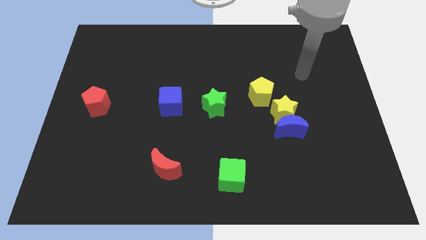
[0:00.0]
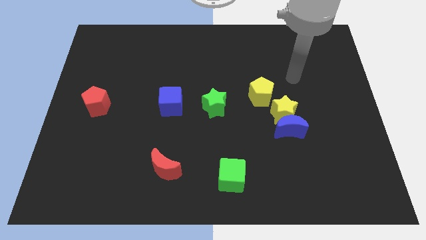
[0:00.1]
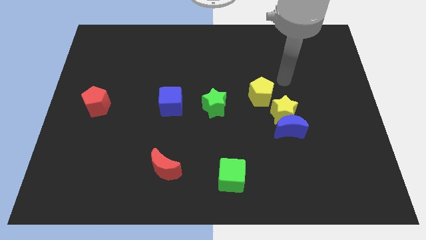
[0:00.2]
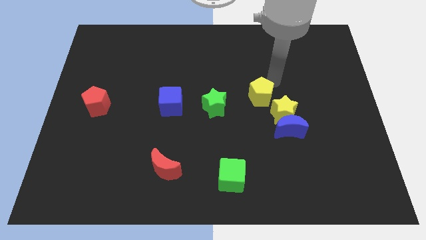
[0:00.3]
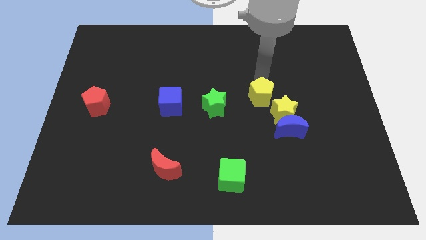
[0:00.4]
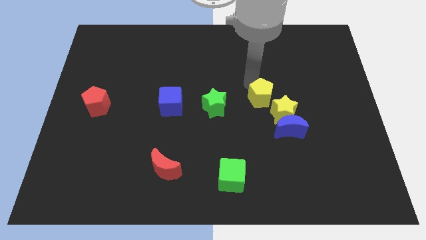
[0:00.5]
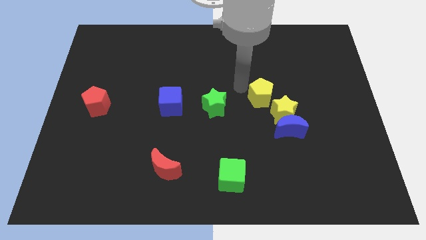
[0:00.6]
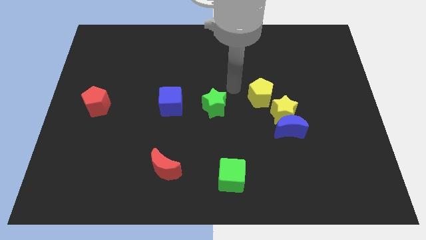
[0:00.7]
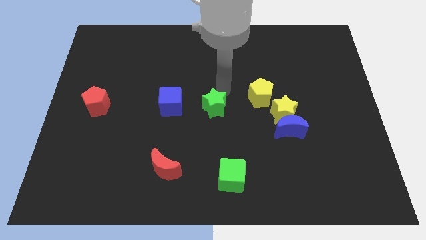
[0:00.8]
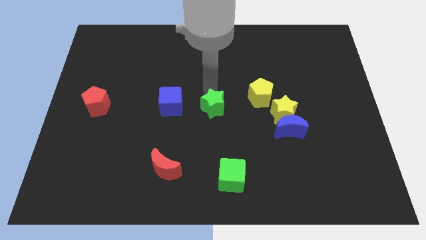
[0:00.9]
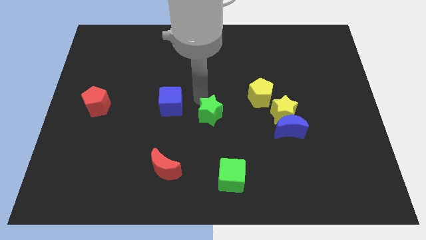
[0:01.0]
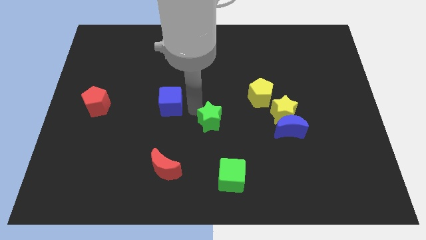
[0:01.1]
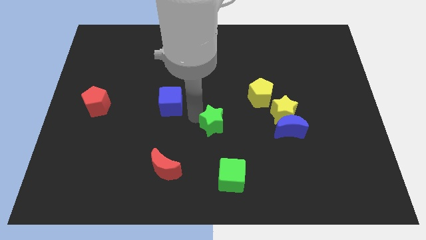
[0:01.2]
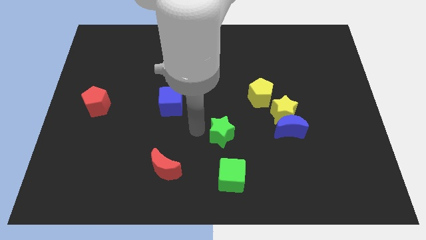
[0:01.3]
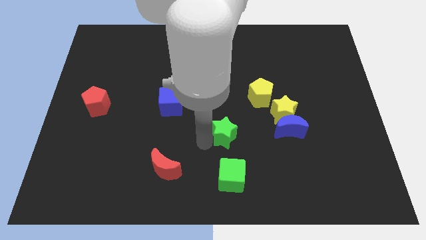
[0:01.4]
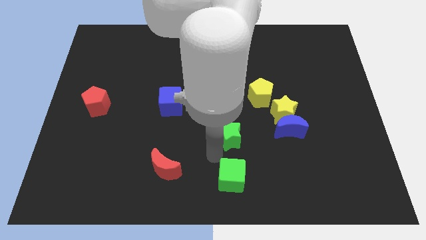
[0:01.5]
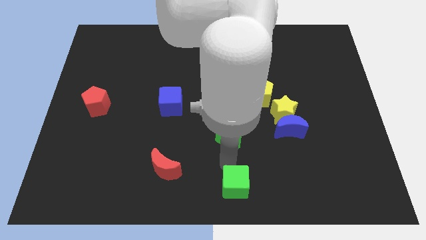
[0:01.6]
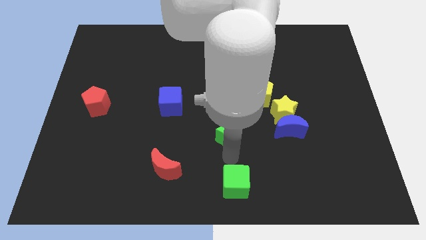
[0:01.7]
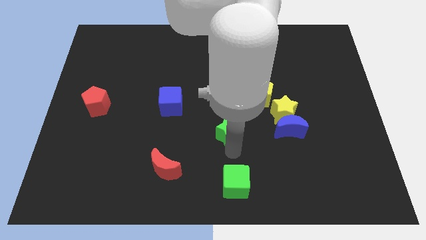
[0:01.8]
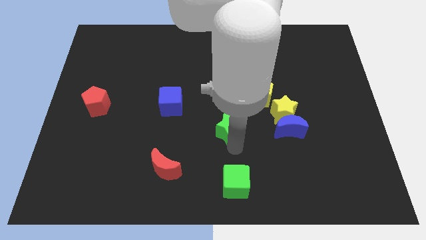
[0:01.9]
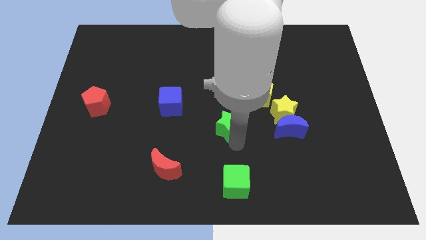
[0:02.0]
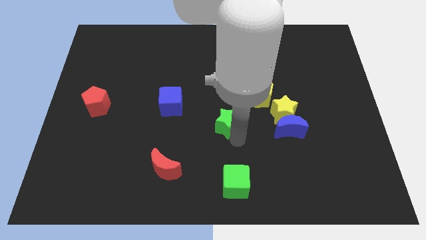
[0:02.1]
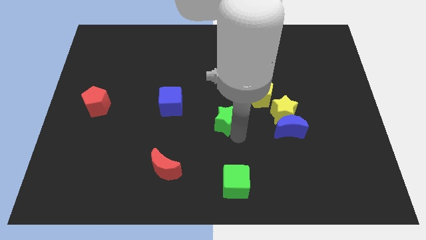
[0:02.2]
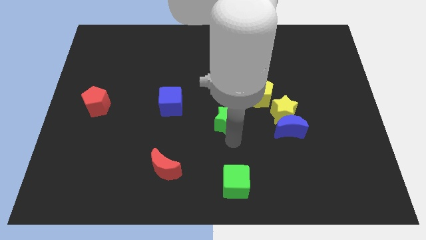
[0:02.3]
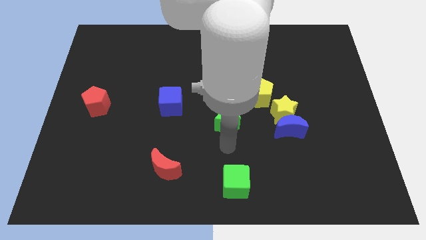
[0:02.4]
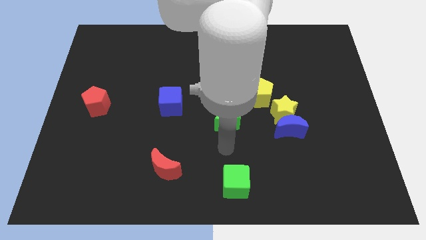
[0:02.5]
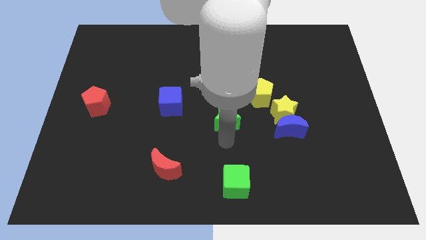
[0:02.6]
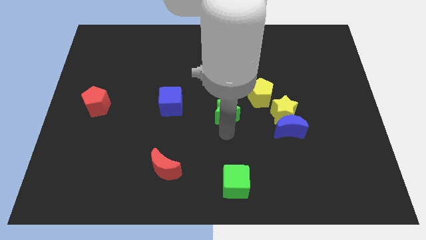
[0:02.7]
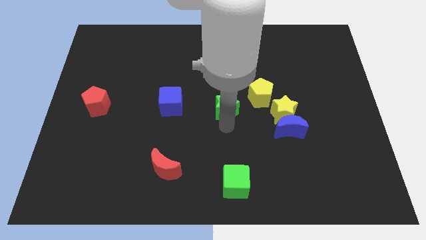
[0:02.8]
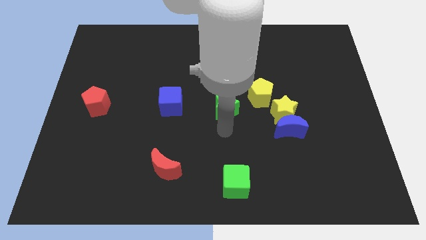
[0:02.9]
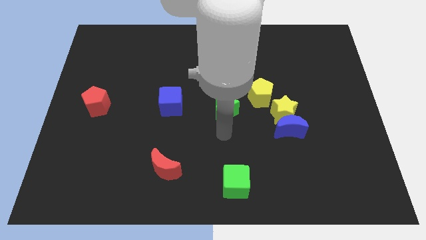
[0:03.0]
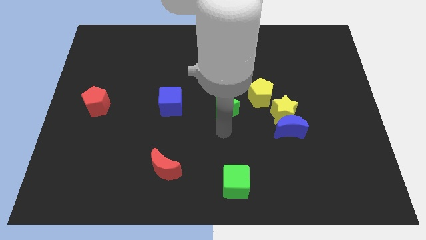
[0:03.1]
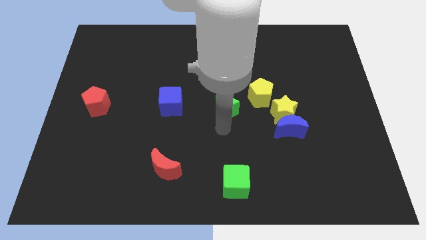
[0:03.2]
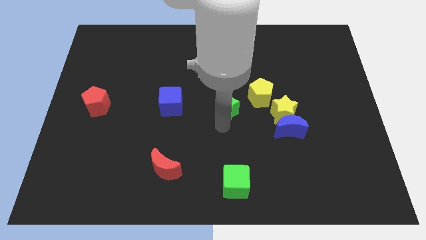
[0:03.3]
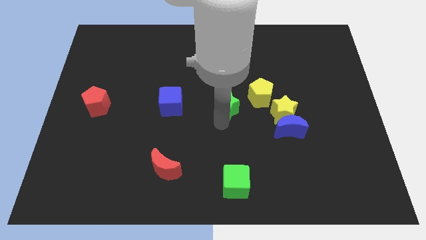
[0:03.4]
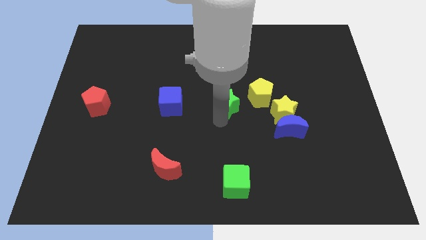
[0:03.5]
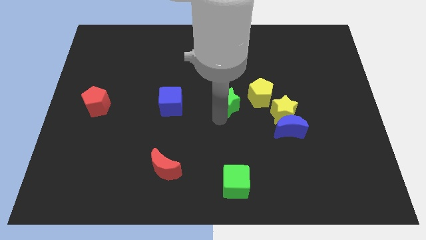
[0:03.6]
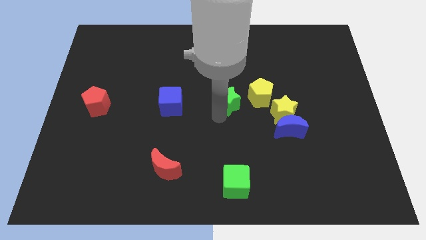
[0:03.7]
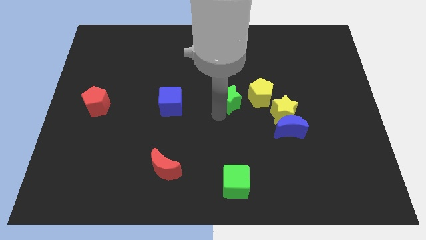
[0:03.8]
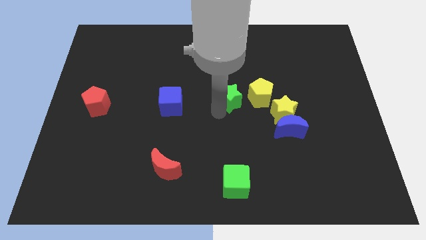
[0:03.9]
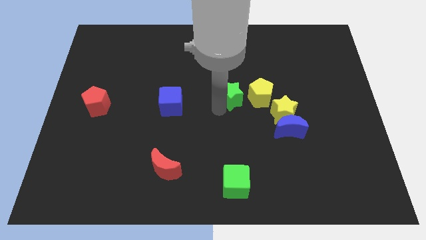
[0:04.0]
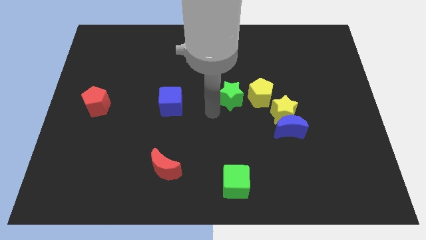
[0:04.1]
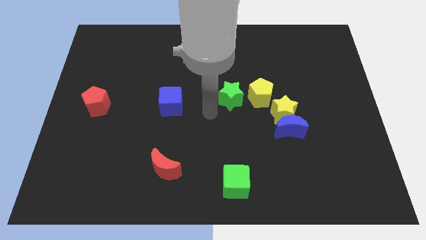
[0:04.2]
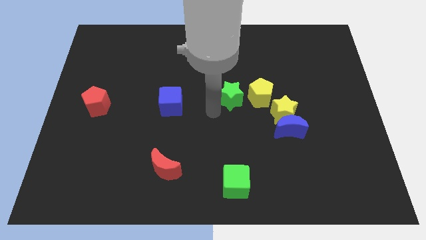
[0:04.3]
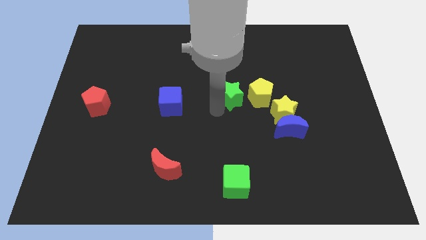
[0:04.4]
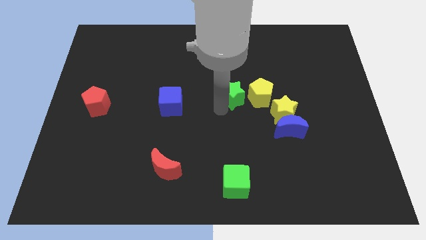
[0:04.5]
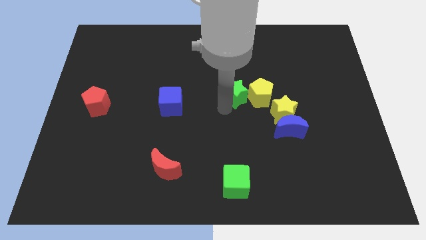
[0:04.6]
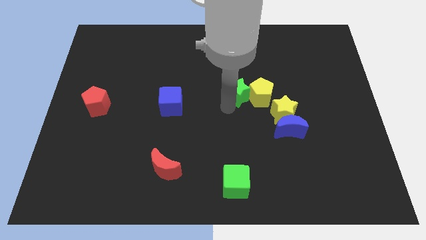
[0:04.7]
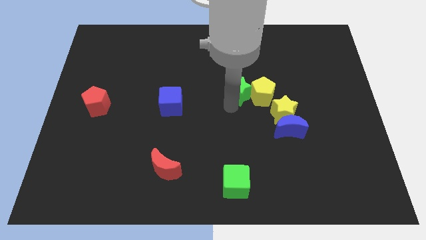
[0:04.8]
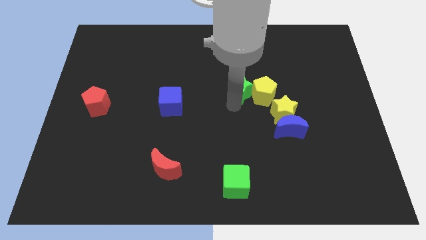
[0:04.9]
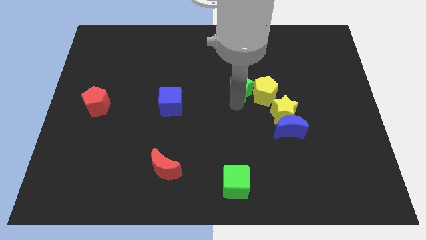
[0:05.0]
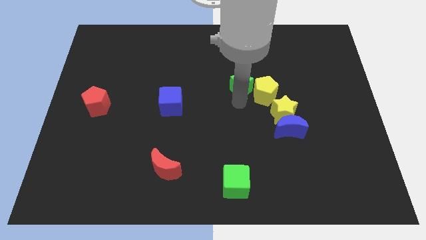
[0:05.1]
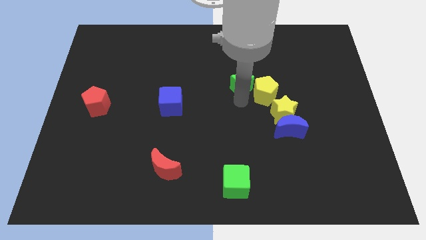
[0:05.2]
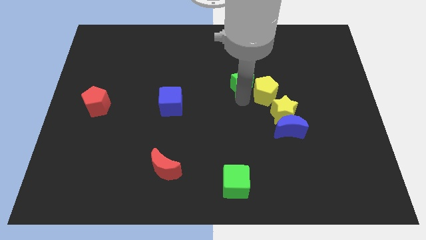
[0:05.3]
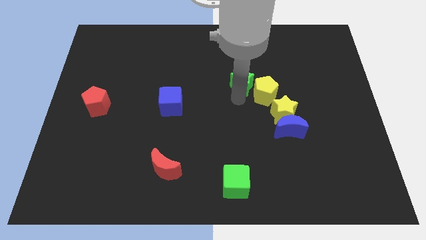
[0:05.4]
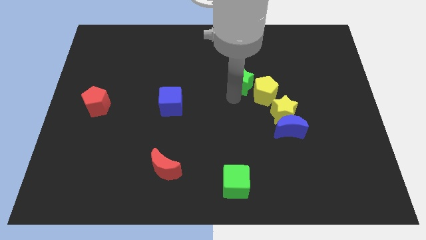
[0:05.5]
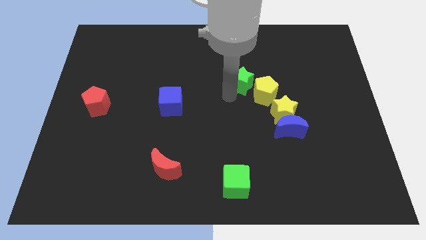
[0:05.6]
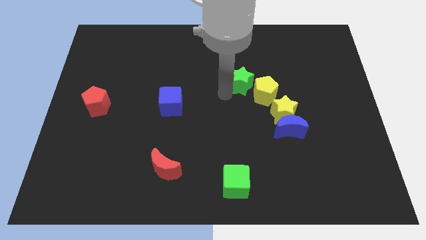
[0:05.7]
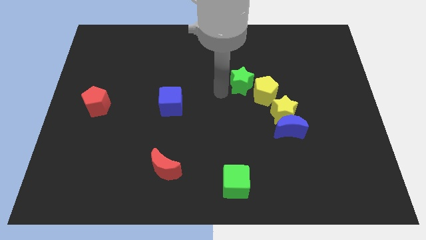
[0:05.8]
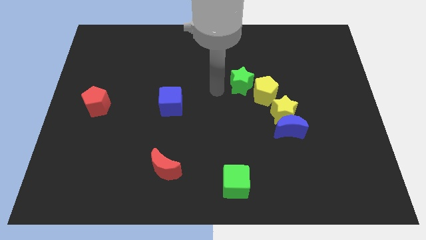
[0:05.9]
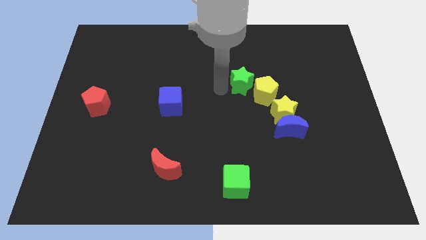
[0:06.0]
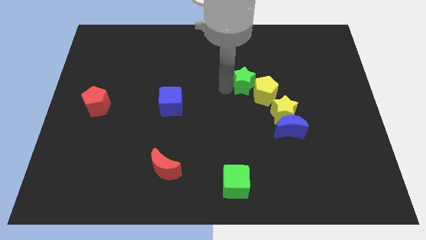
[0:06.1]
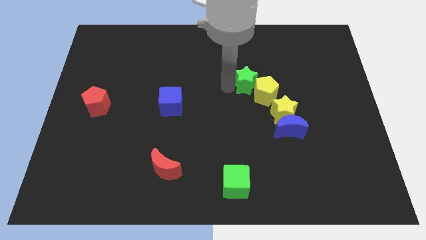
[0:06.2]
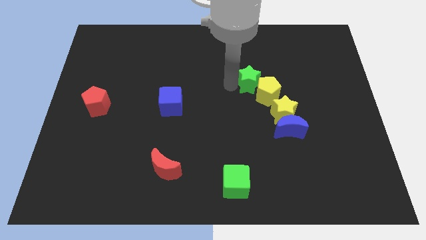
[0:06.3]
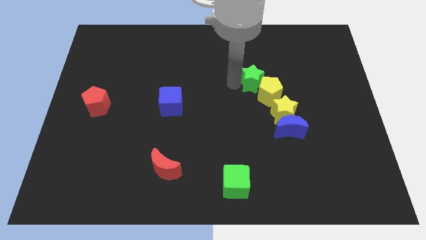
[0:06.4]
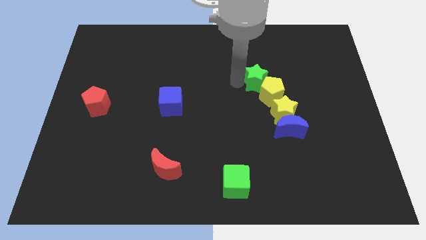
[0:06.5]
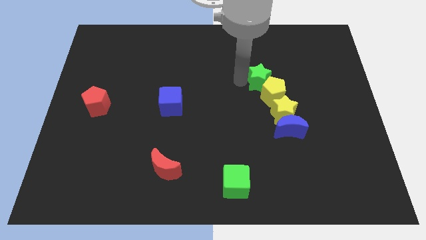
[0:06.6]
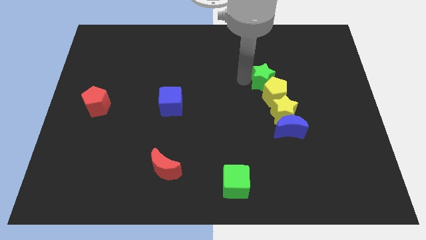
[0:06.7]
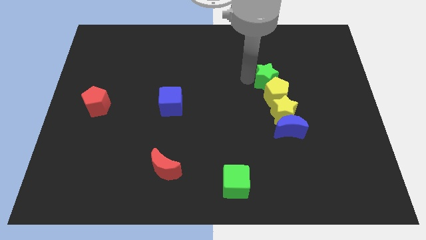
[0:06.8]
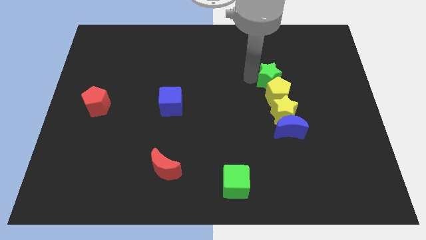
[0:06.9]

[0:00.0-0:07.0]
push the green star diagonally up and to the right of the yellow pentagon

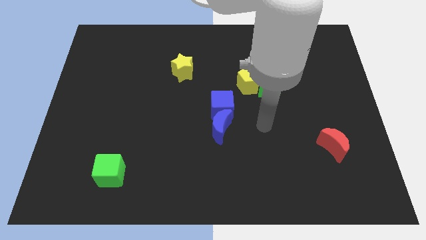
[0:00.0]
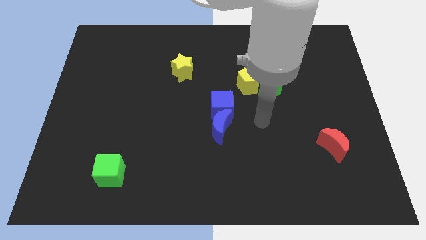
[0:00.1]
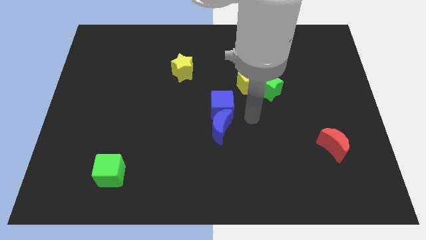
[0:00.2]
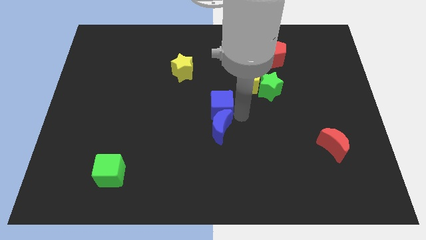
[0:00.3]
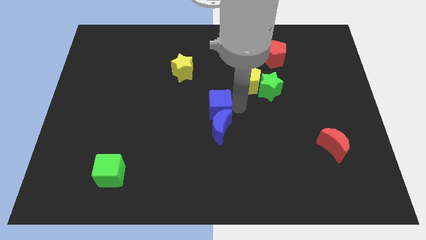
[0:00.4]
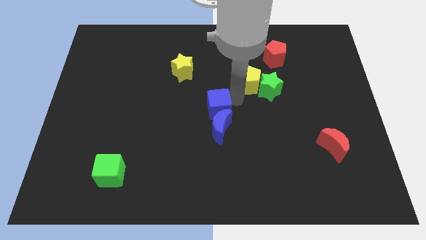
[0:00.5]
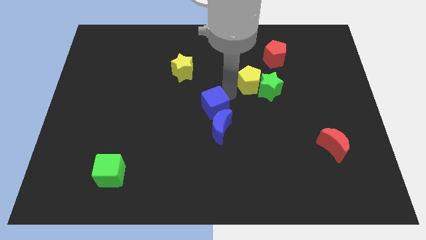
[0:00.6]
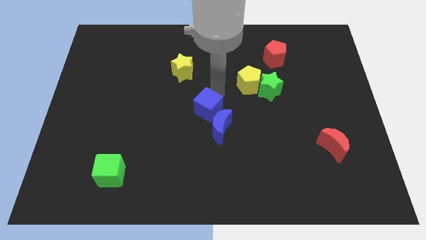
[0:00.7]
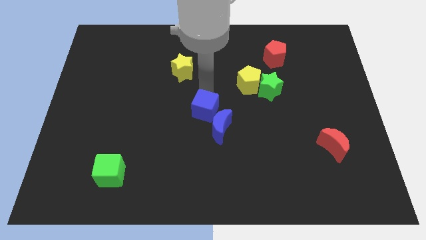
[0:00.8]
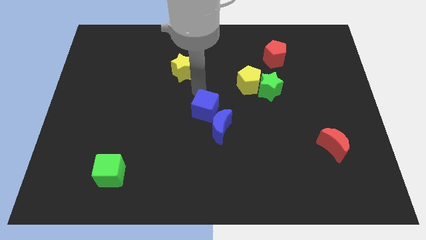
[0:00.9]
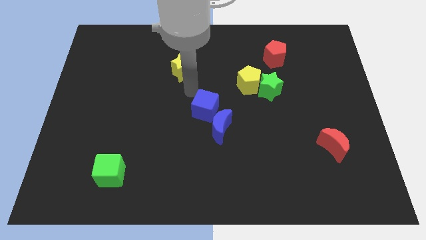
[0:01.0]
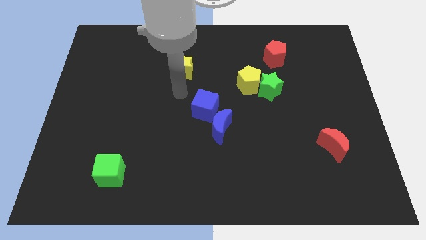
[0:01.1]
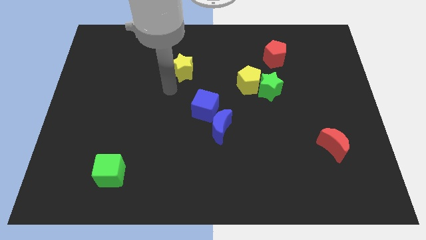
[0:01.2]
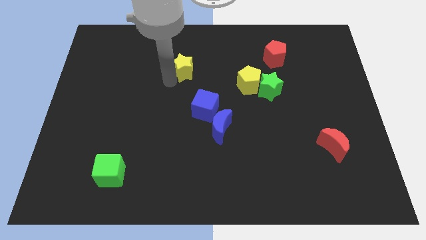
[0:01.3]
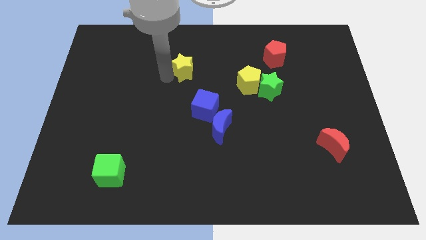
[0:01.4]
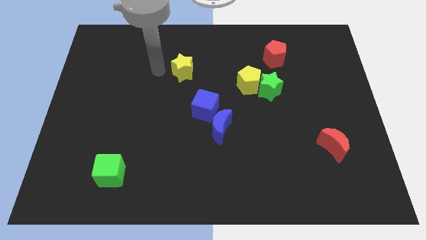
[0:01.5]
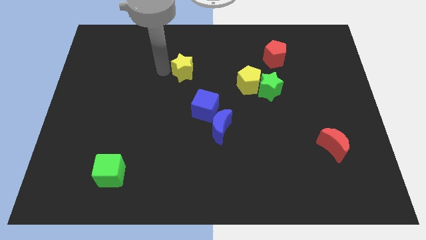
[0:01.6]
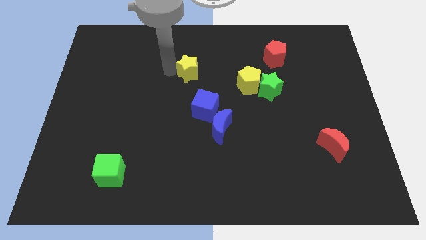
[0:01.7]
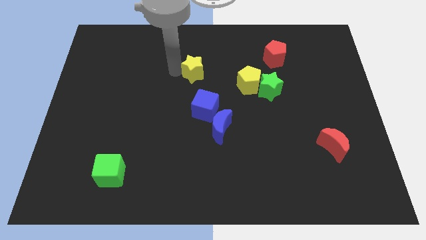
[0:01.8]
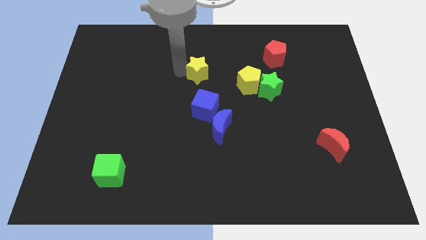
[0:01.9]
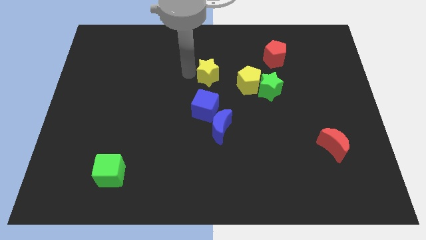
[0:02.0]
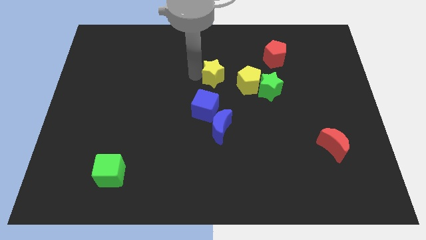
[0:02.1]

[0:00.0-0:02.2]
slide the yellow star to the top left side of the yellow pentagon
